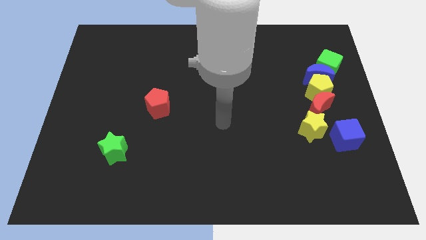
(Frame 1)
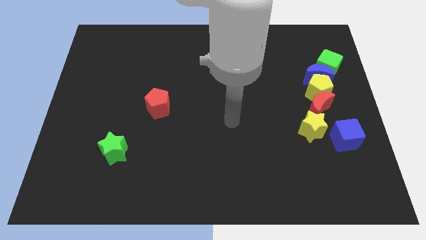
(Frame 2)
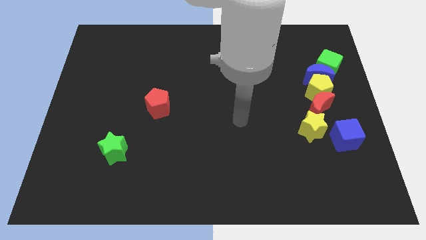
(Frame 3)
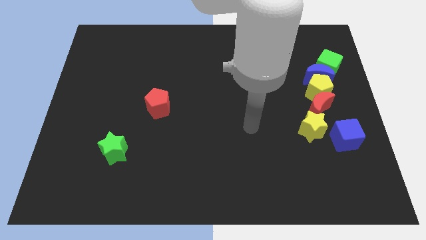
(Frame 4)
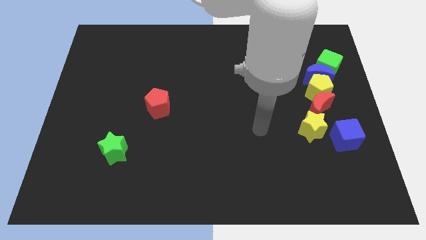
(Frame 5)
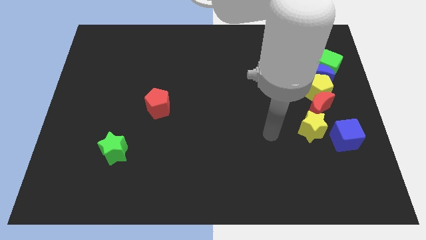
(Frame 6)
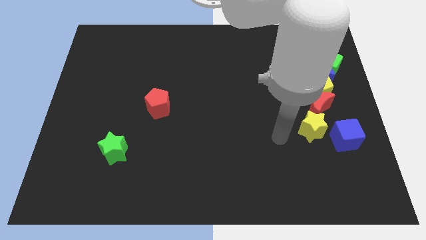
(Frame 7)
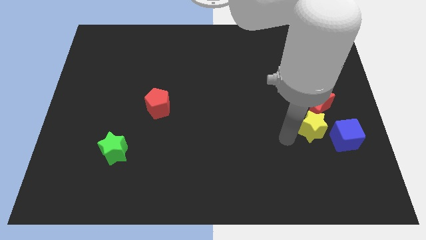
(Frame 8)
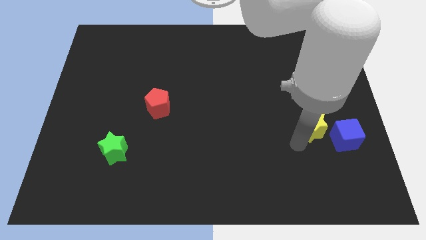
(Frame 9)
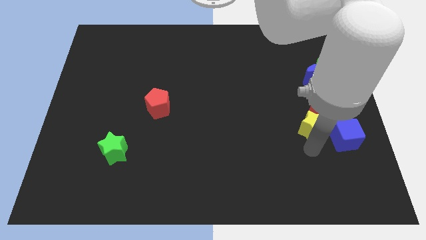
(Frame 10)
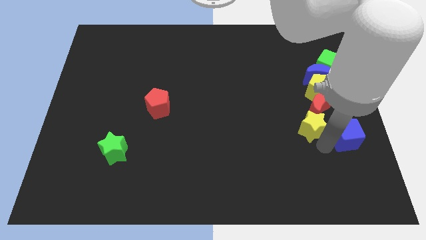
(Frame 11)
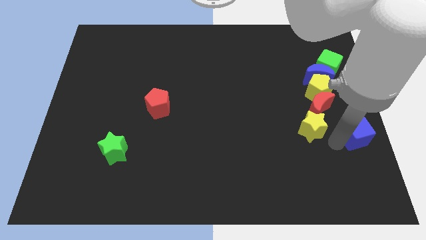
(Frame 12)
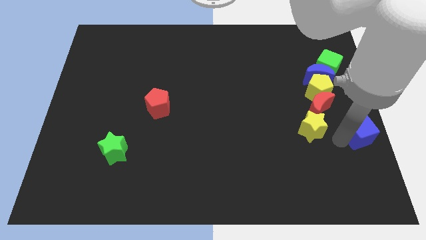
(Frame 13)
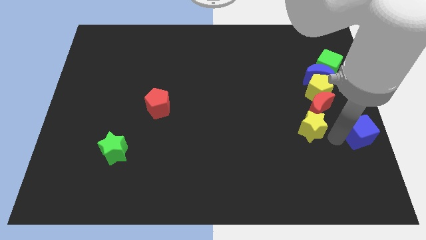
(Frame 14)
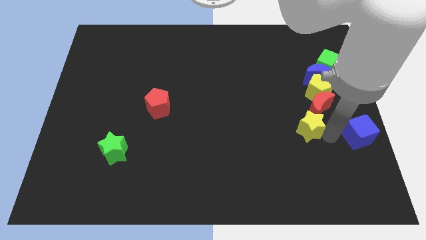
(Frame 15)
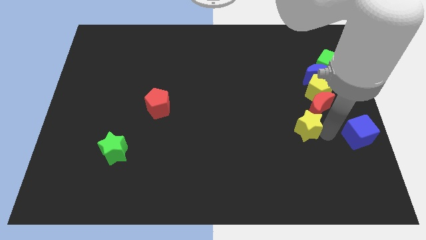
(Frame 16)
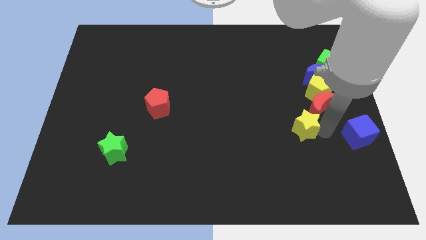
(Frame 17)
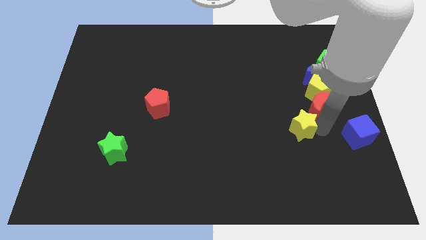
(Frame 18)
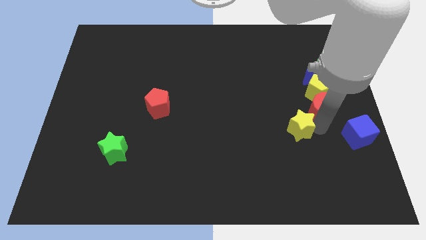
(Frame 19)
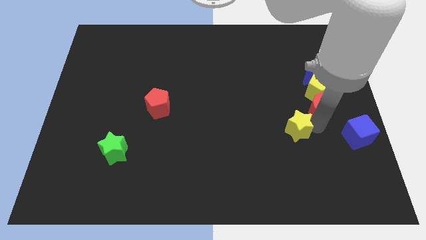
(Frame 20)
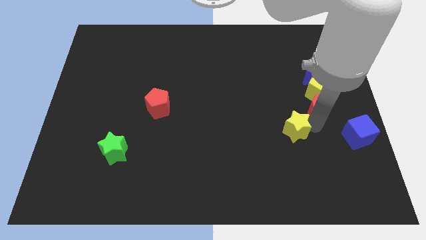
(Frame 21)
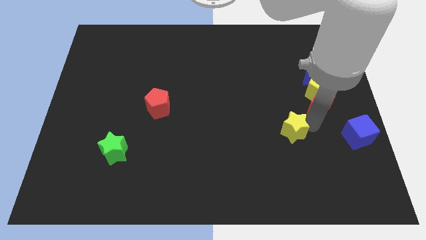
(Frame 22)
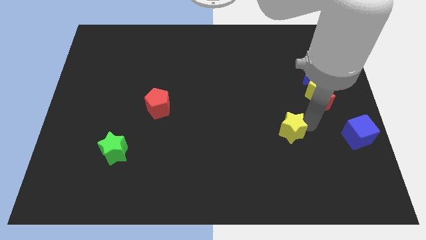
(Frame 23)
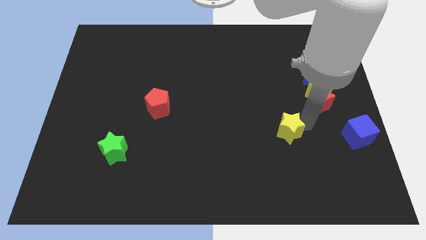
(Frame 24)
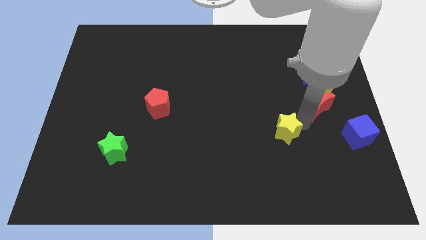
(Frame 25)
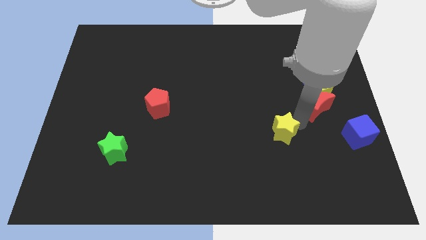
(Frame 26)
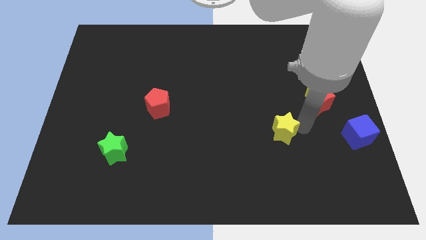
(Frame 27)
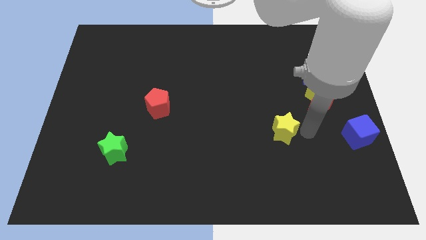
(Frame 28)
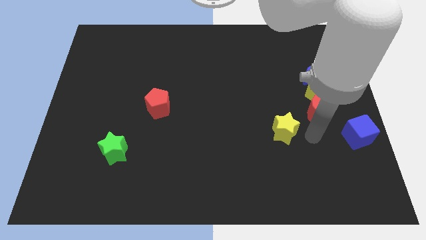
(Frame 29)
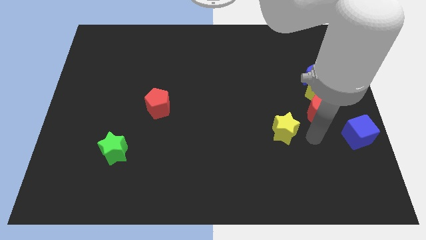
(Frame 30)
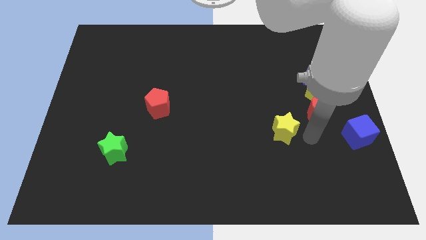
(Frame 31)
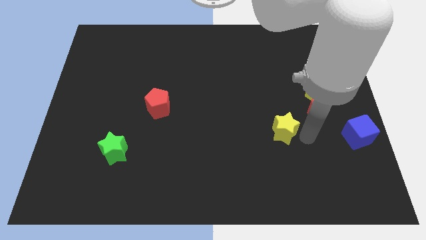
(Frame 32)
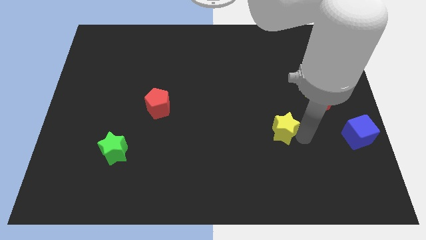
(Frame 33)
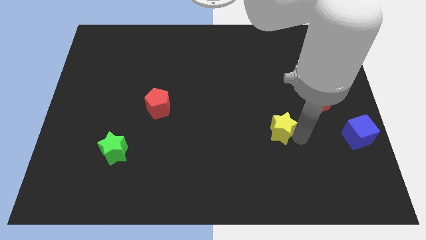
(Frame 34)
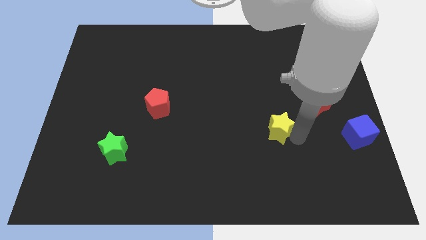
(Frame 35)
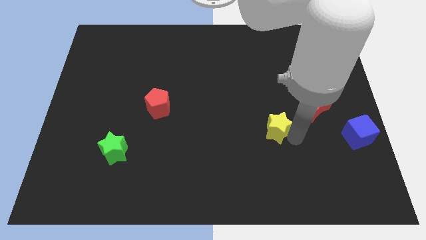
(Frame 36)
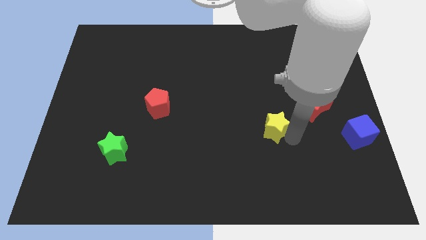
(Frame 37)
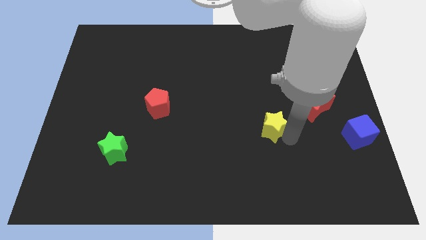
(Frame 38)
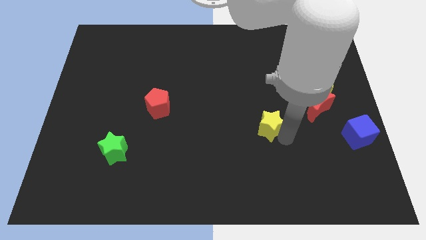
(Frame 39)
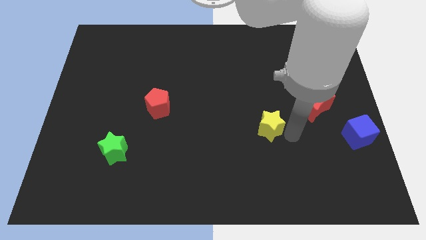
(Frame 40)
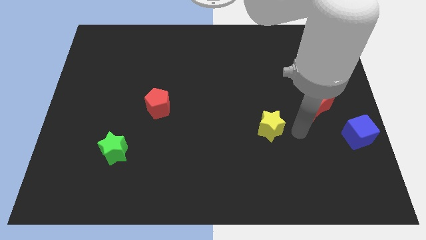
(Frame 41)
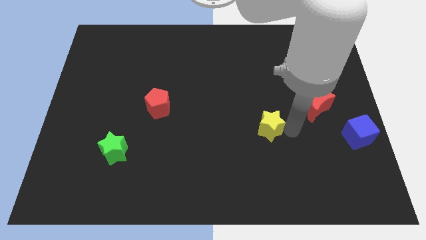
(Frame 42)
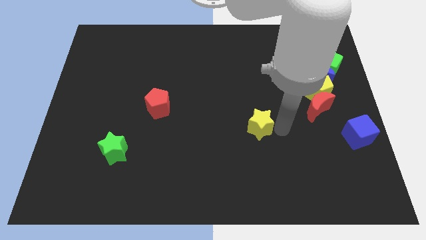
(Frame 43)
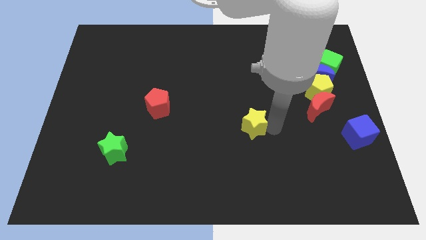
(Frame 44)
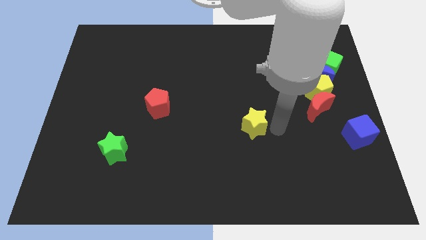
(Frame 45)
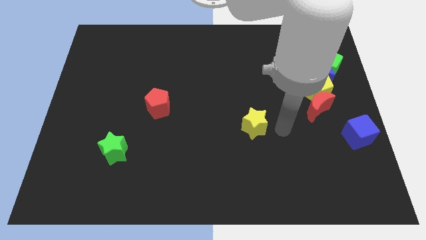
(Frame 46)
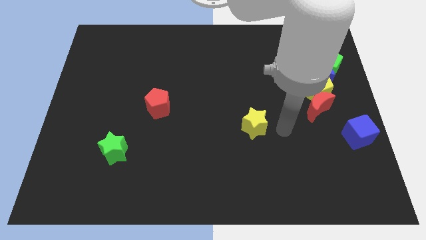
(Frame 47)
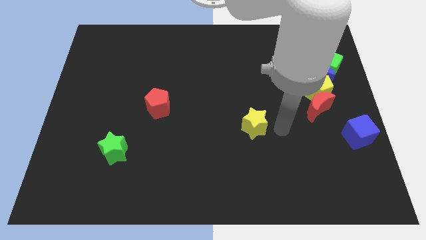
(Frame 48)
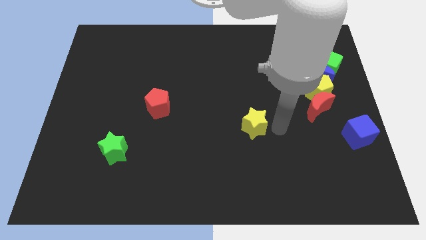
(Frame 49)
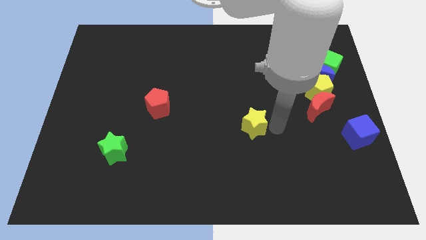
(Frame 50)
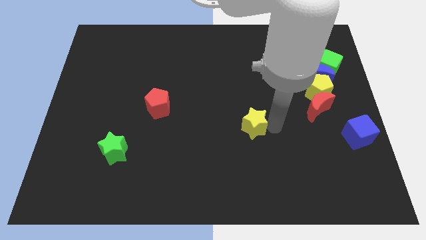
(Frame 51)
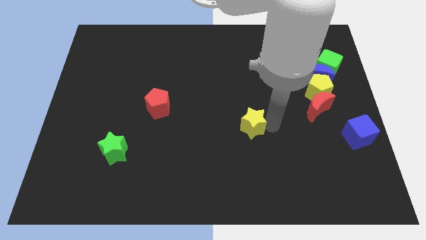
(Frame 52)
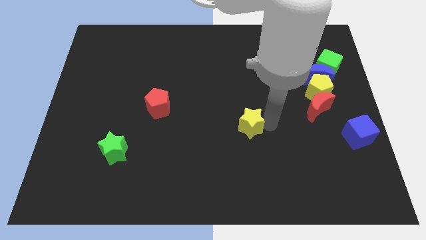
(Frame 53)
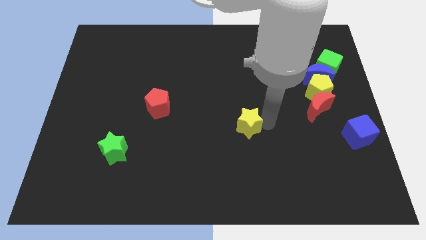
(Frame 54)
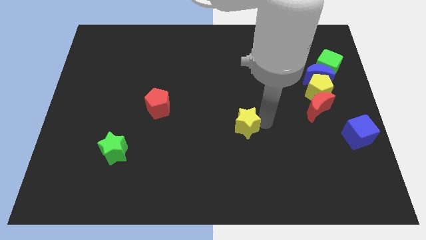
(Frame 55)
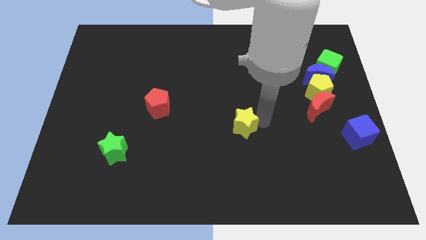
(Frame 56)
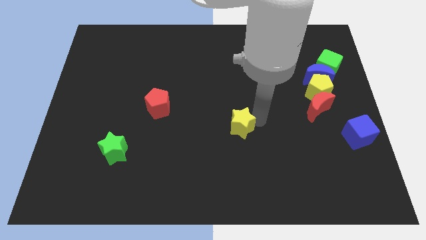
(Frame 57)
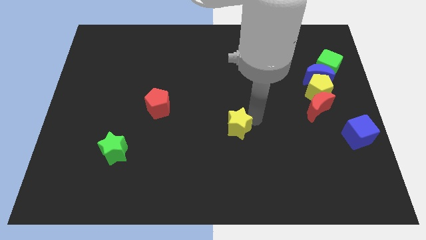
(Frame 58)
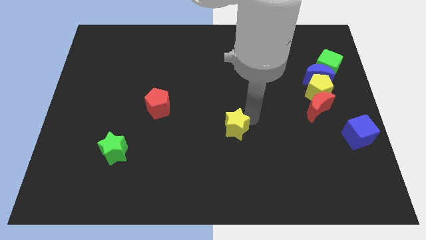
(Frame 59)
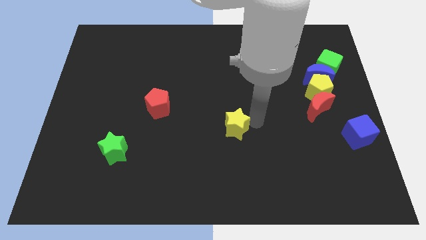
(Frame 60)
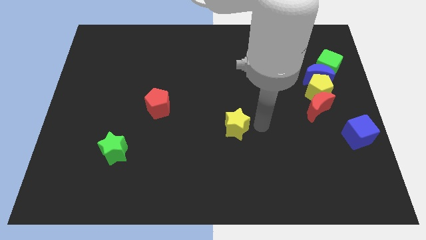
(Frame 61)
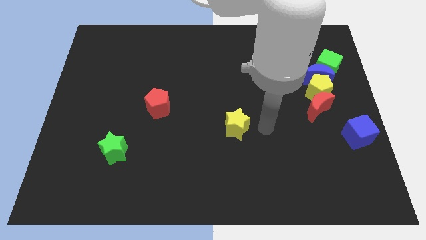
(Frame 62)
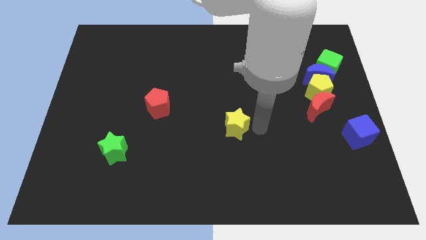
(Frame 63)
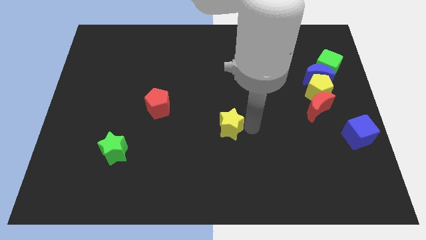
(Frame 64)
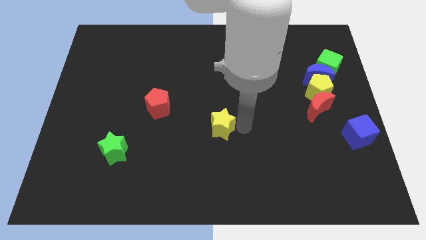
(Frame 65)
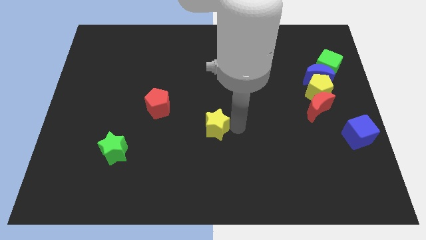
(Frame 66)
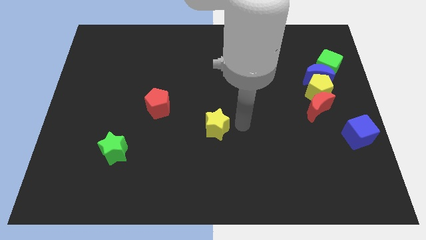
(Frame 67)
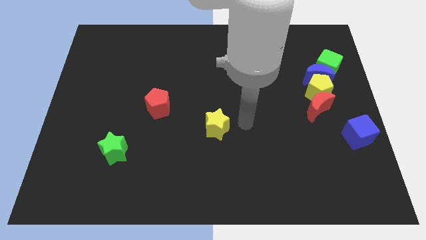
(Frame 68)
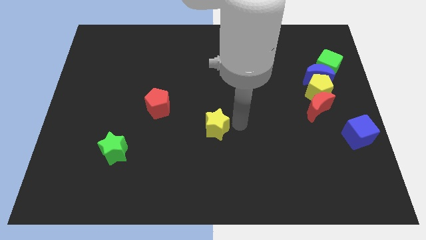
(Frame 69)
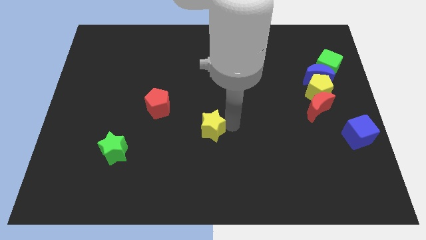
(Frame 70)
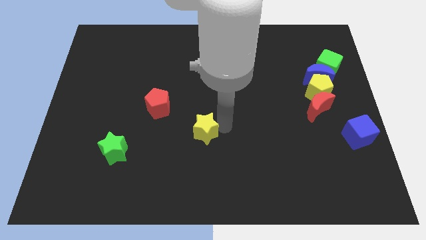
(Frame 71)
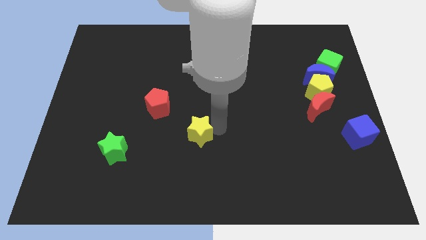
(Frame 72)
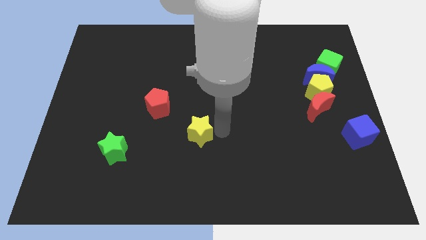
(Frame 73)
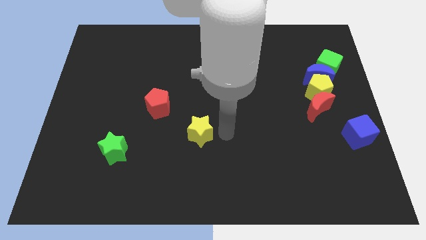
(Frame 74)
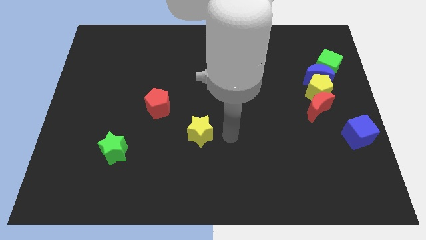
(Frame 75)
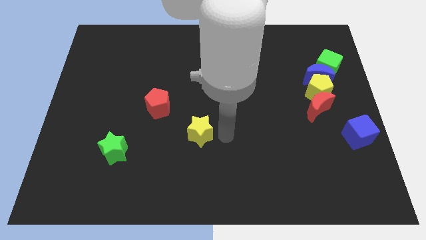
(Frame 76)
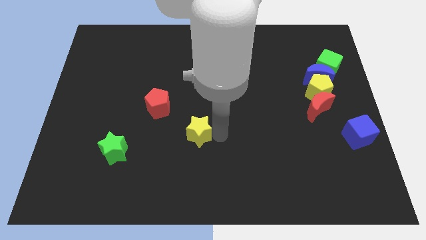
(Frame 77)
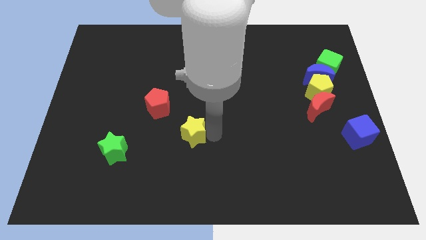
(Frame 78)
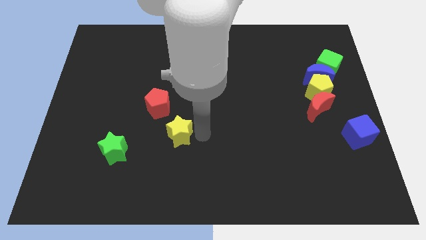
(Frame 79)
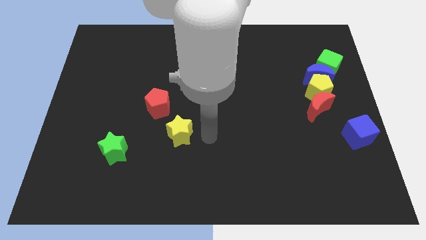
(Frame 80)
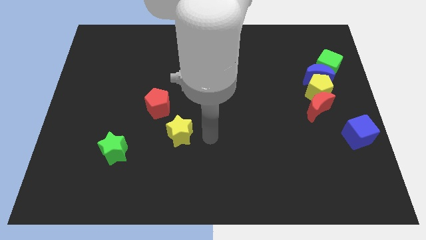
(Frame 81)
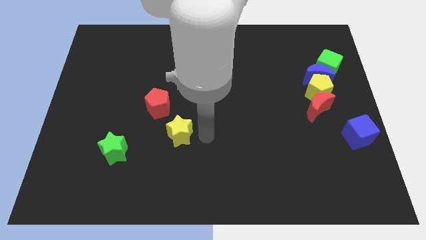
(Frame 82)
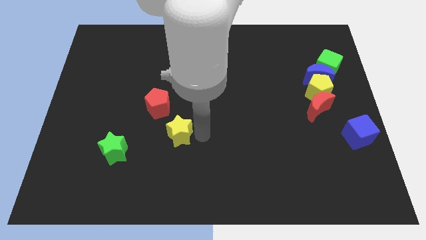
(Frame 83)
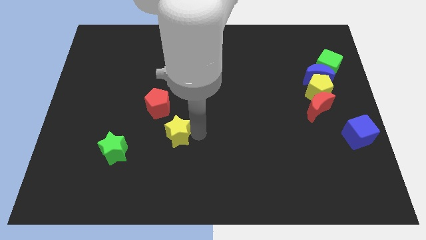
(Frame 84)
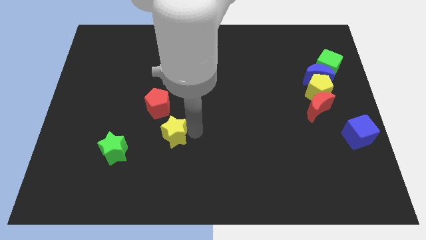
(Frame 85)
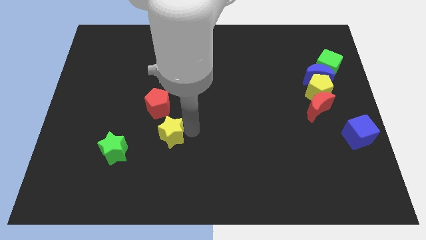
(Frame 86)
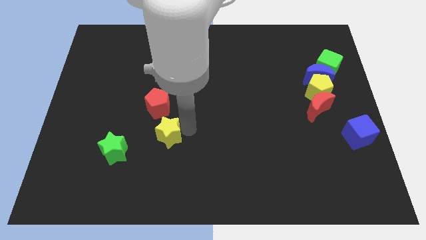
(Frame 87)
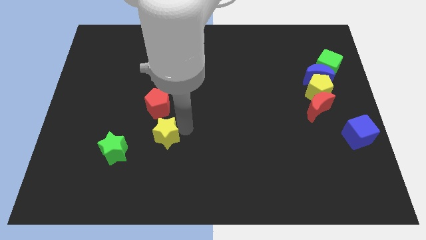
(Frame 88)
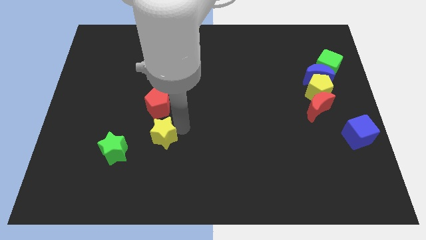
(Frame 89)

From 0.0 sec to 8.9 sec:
put the yellow star to the top right of the green star
